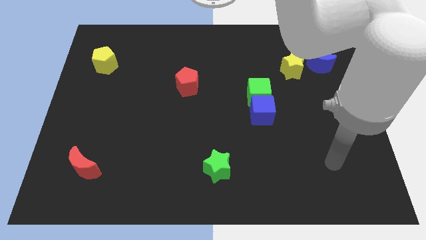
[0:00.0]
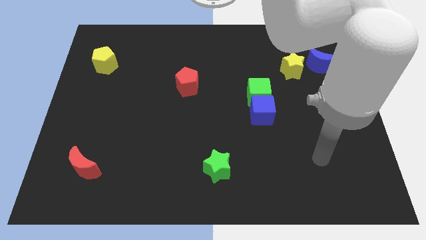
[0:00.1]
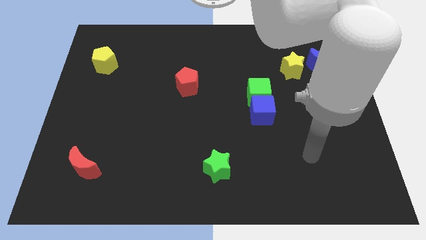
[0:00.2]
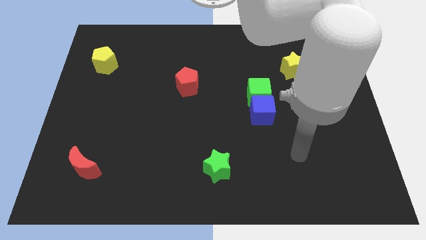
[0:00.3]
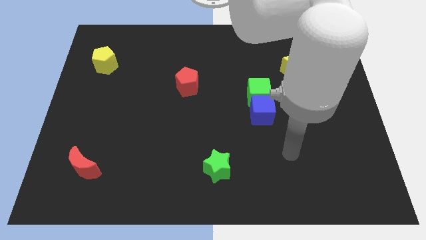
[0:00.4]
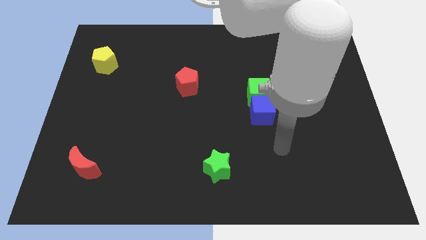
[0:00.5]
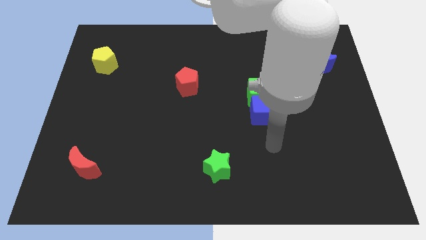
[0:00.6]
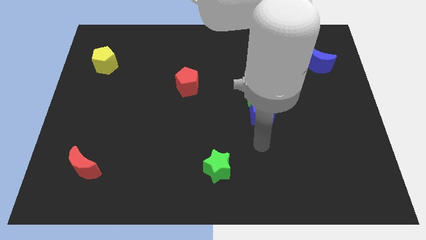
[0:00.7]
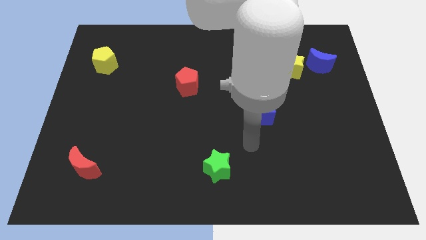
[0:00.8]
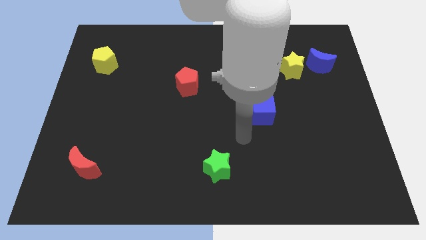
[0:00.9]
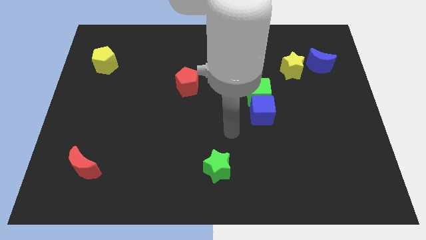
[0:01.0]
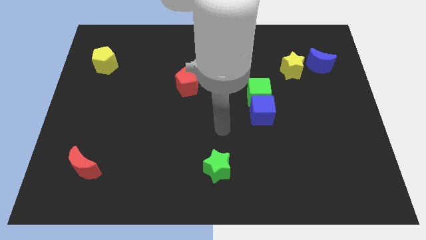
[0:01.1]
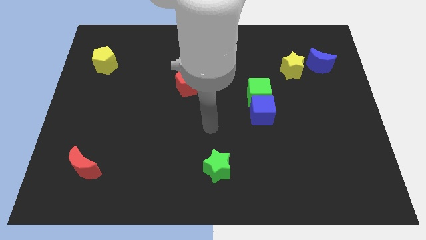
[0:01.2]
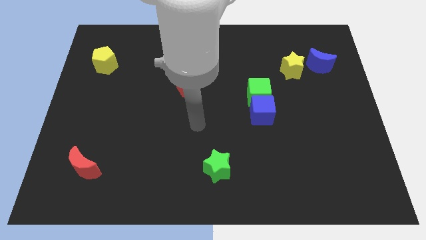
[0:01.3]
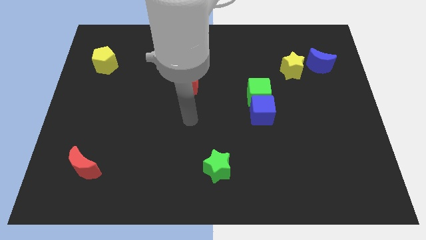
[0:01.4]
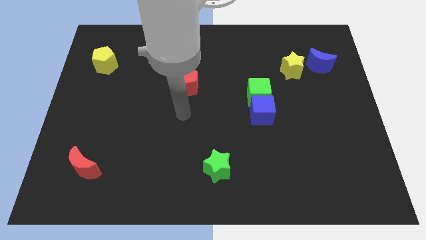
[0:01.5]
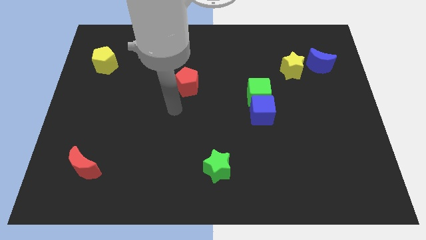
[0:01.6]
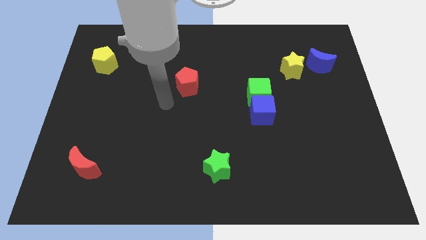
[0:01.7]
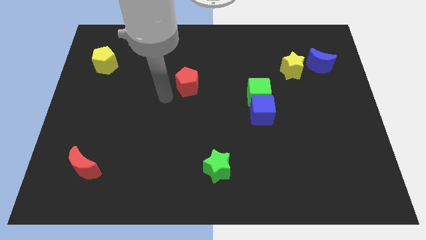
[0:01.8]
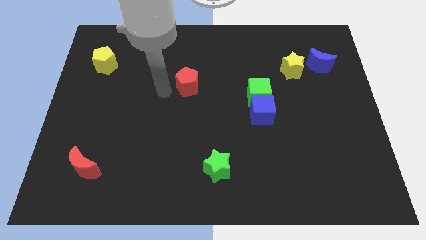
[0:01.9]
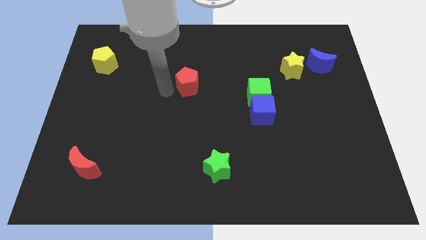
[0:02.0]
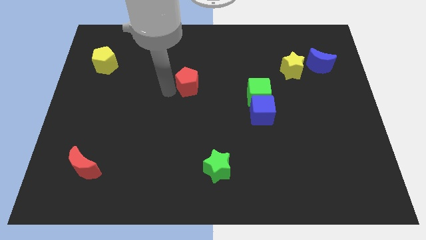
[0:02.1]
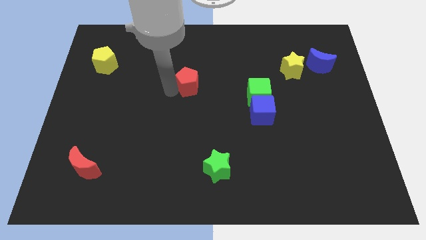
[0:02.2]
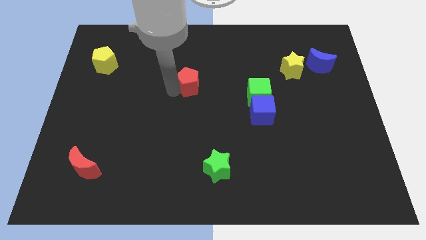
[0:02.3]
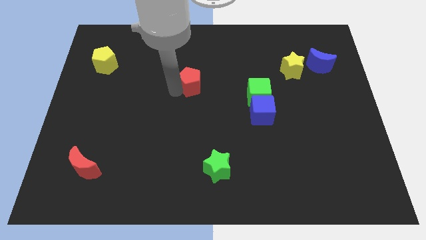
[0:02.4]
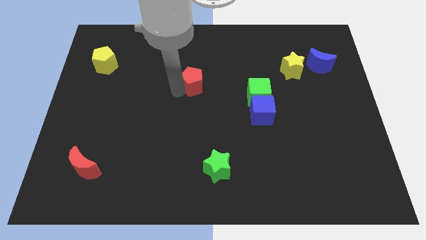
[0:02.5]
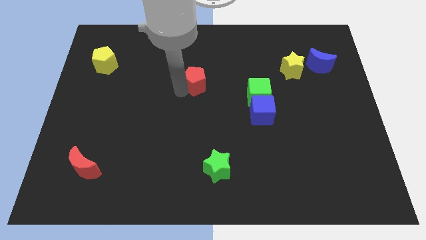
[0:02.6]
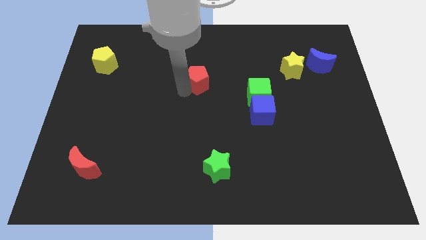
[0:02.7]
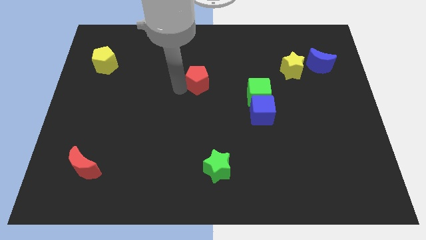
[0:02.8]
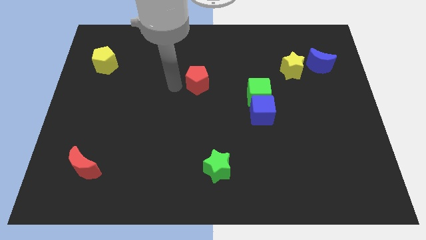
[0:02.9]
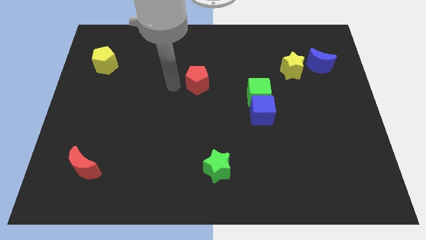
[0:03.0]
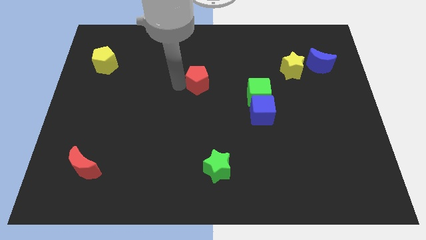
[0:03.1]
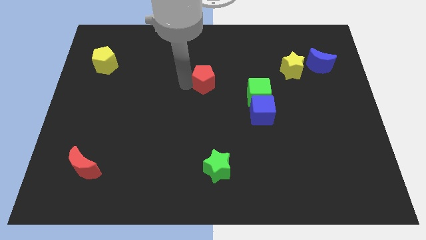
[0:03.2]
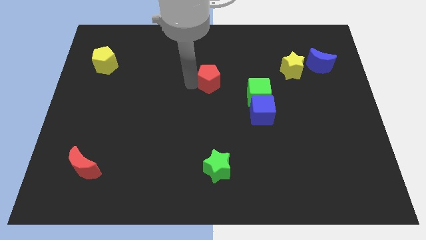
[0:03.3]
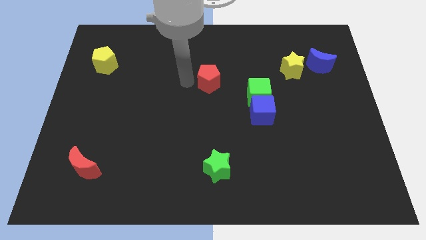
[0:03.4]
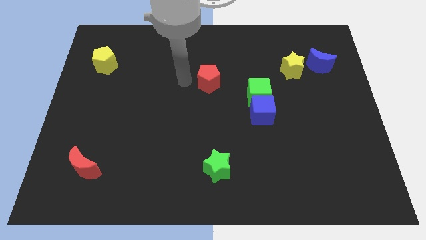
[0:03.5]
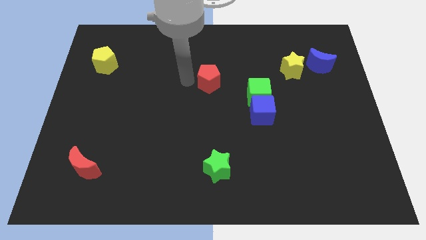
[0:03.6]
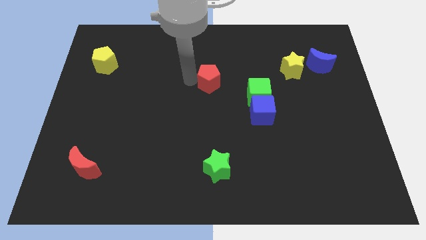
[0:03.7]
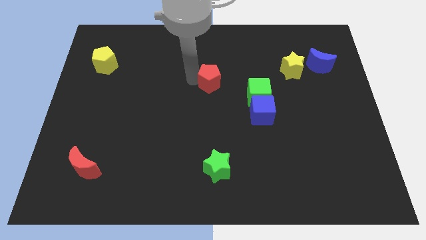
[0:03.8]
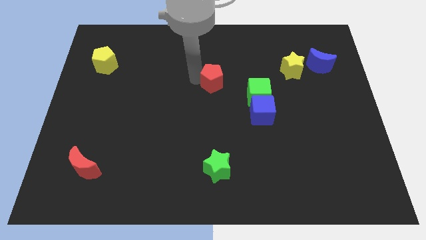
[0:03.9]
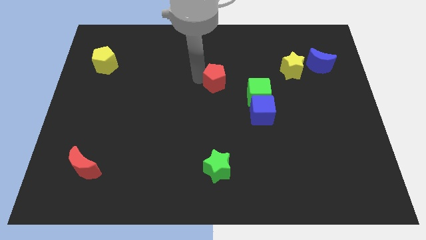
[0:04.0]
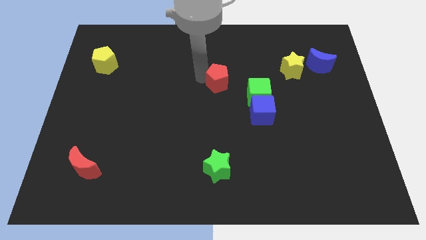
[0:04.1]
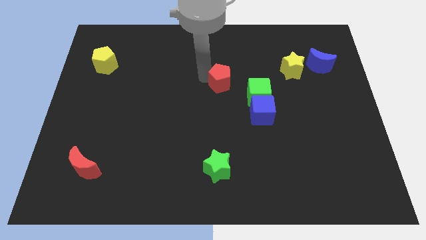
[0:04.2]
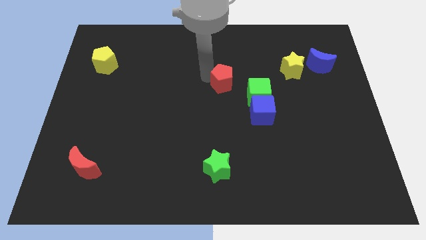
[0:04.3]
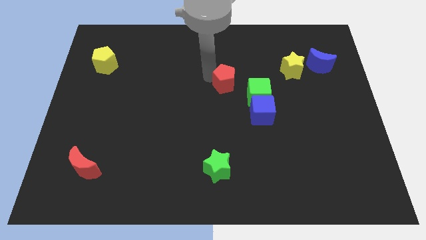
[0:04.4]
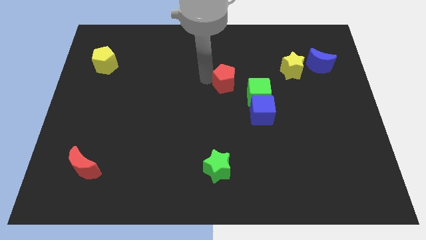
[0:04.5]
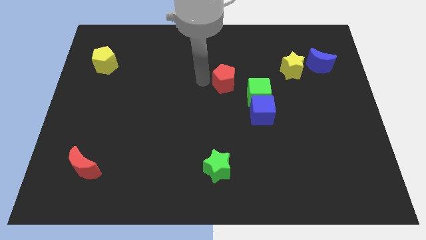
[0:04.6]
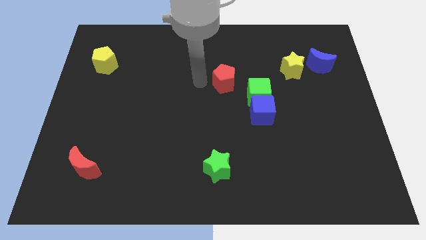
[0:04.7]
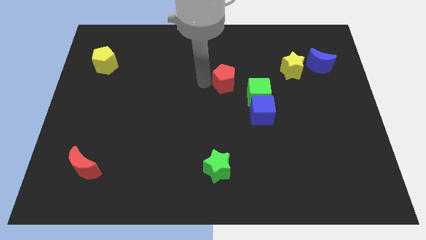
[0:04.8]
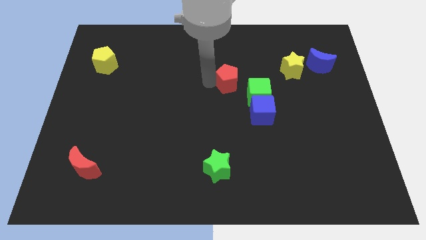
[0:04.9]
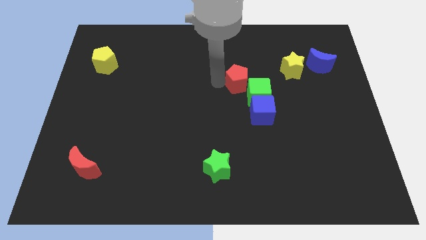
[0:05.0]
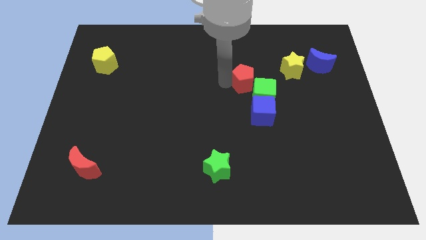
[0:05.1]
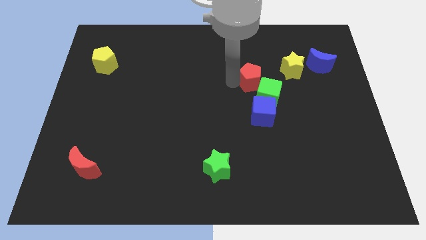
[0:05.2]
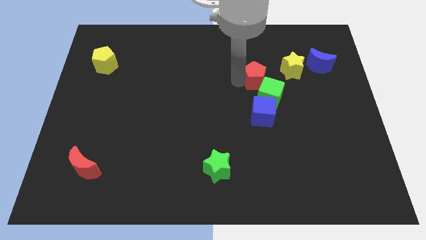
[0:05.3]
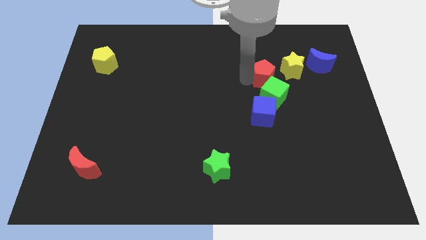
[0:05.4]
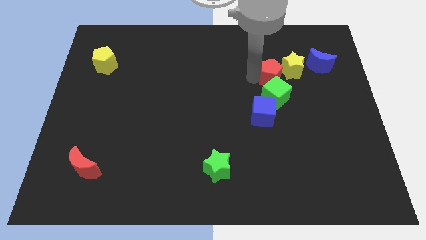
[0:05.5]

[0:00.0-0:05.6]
slide the red pentagon right

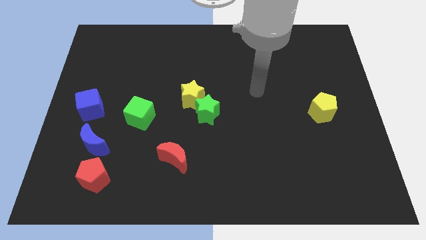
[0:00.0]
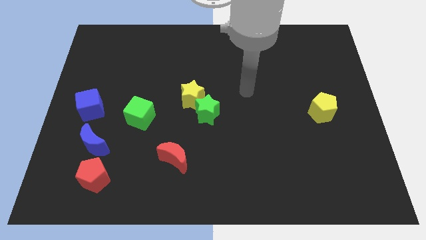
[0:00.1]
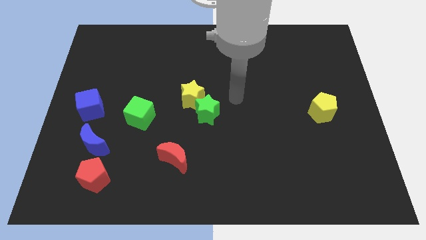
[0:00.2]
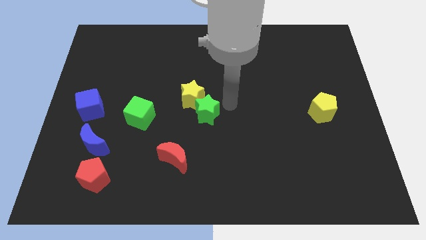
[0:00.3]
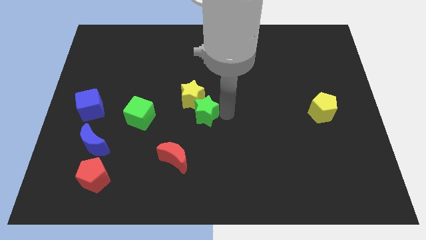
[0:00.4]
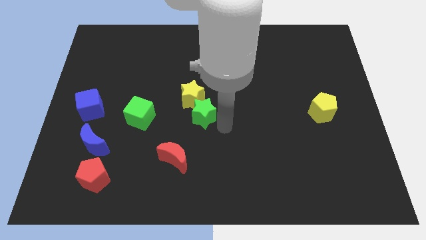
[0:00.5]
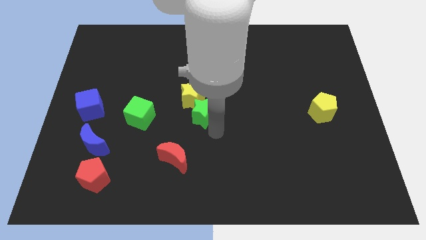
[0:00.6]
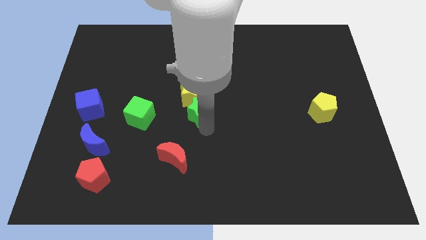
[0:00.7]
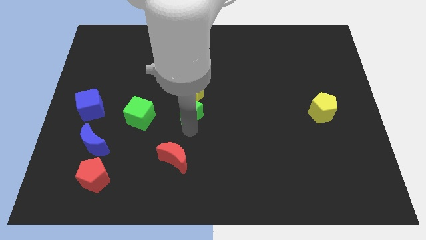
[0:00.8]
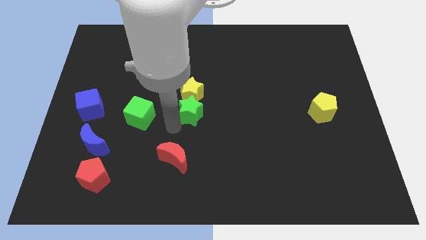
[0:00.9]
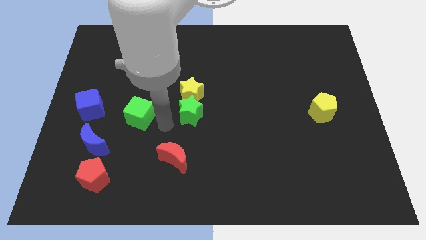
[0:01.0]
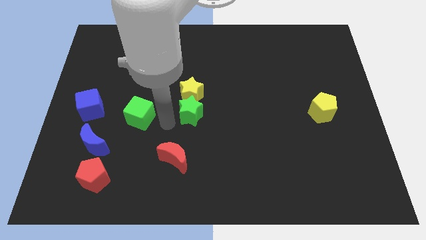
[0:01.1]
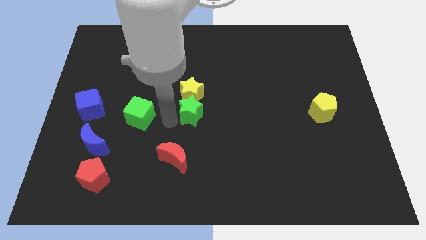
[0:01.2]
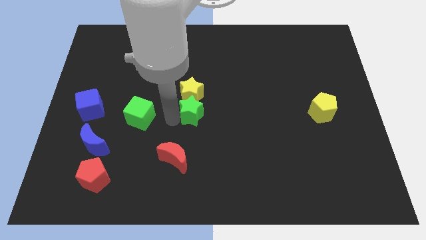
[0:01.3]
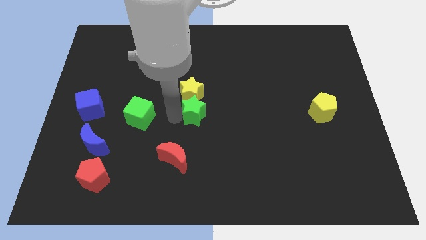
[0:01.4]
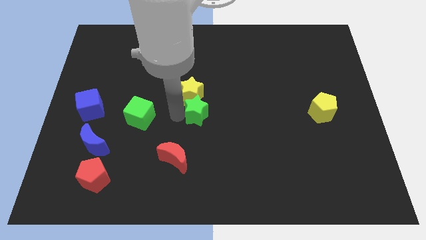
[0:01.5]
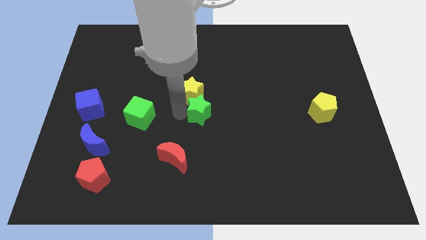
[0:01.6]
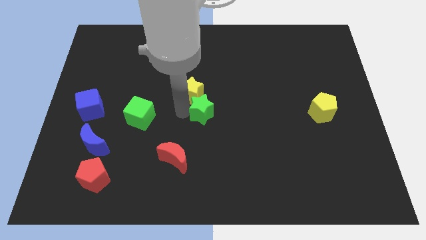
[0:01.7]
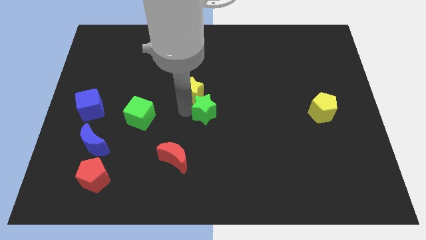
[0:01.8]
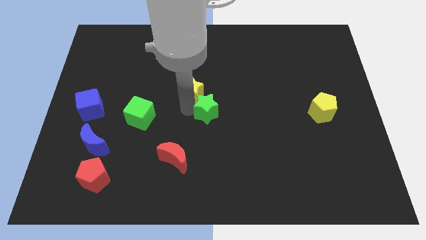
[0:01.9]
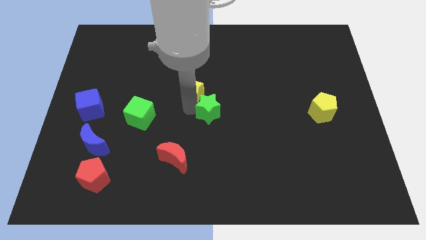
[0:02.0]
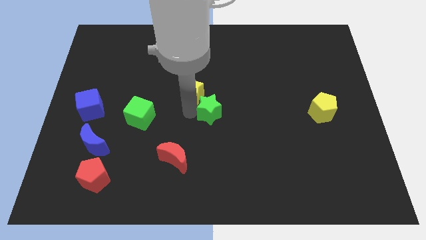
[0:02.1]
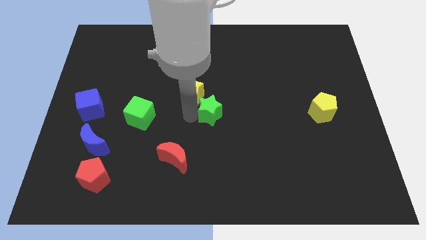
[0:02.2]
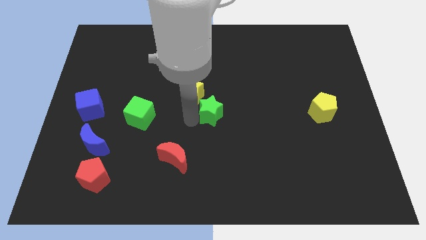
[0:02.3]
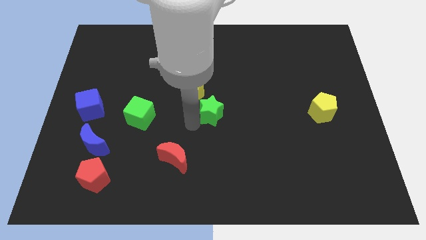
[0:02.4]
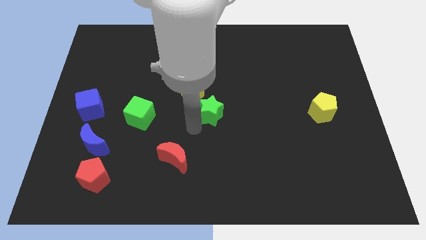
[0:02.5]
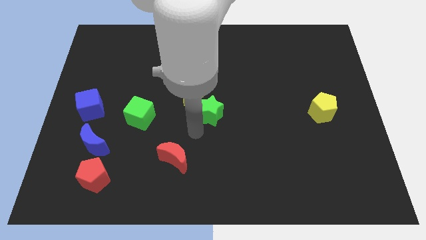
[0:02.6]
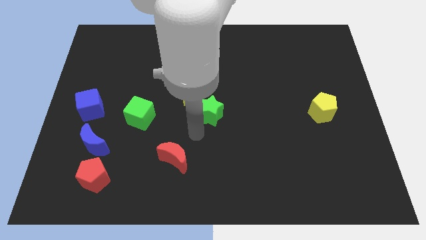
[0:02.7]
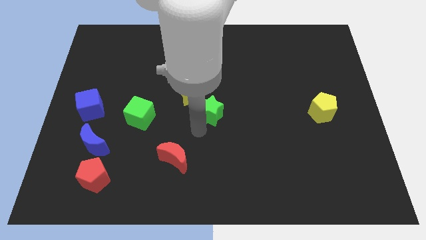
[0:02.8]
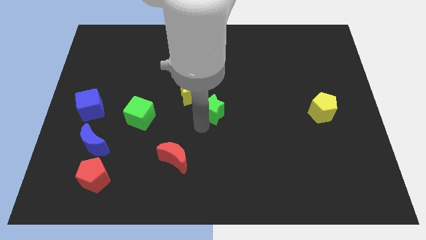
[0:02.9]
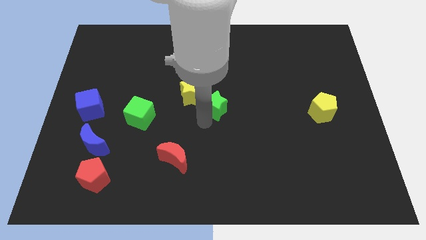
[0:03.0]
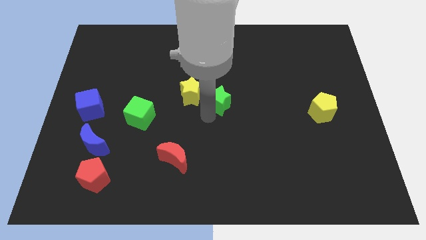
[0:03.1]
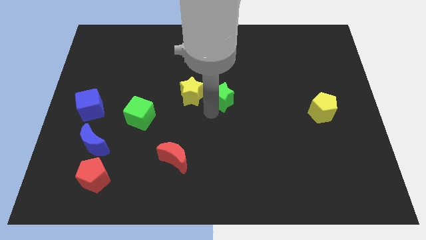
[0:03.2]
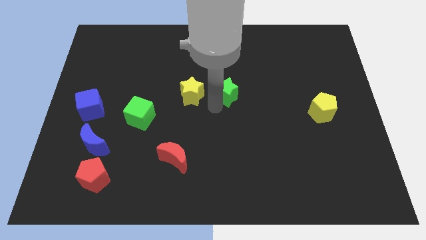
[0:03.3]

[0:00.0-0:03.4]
move the green star upwards and then to the right a little bit
